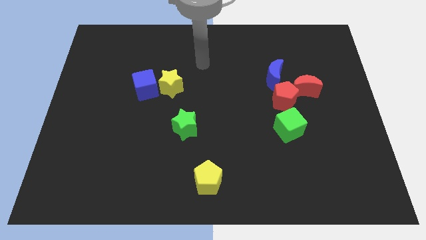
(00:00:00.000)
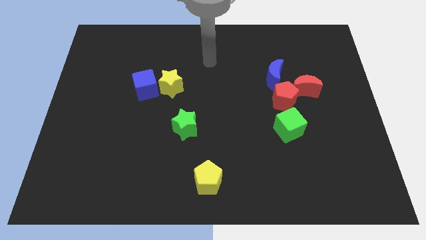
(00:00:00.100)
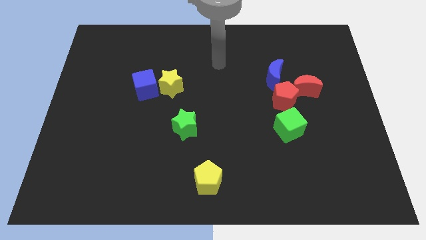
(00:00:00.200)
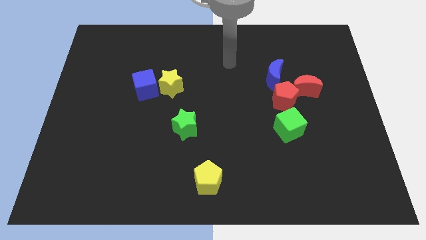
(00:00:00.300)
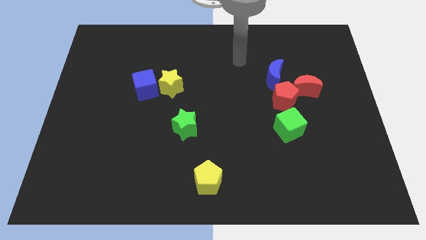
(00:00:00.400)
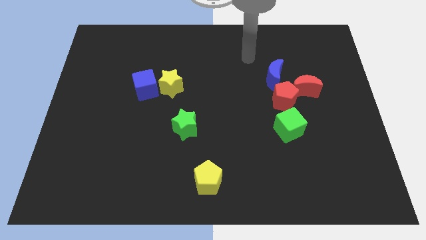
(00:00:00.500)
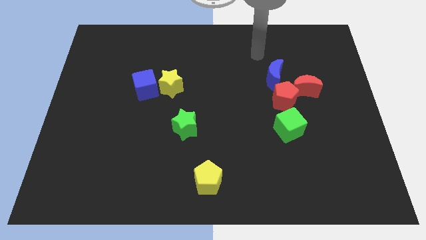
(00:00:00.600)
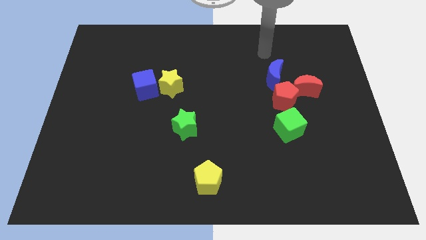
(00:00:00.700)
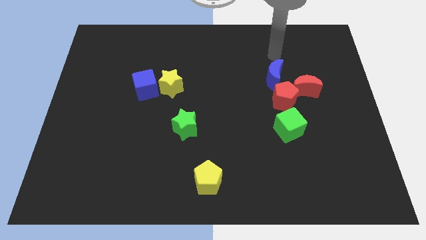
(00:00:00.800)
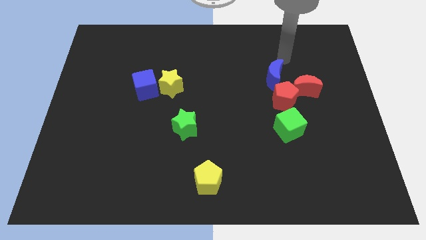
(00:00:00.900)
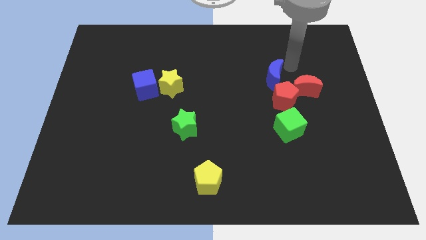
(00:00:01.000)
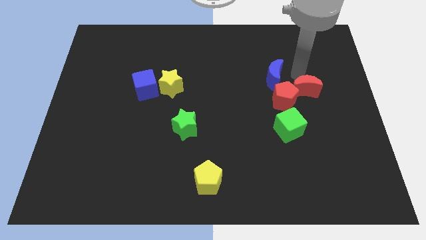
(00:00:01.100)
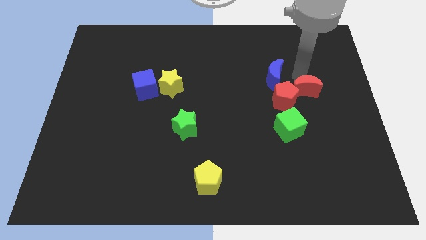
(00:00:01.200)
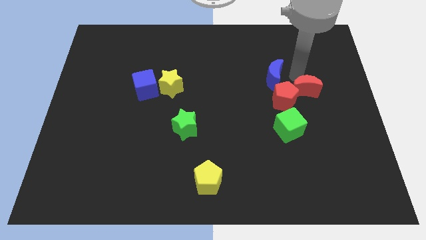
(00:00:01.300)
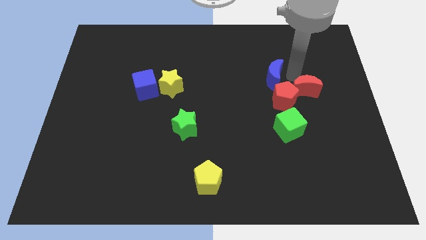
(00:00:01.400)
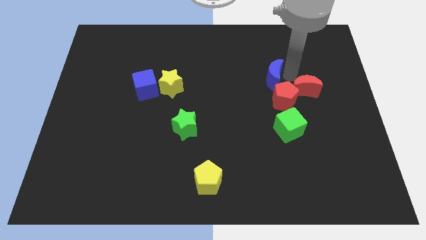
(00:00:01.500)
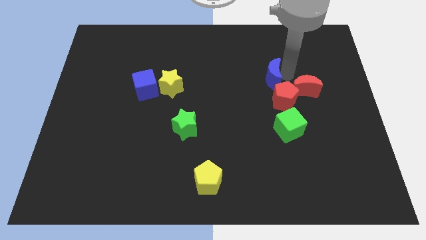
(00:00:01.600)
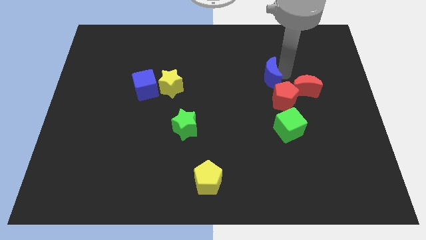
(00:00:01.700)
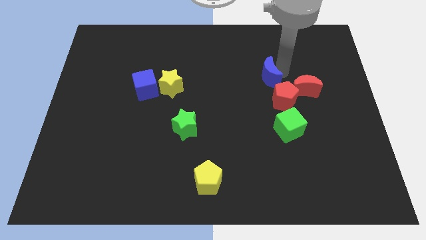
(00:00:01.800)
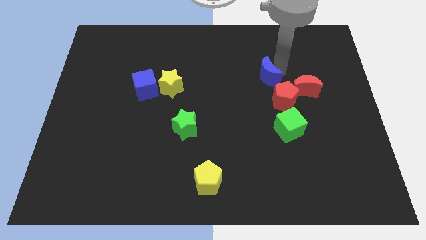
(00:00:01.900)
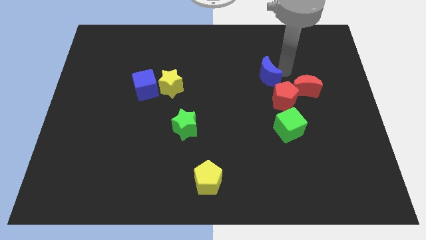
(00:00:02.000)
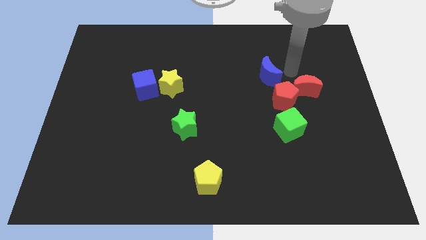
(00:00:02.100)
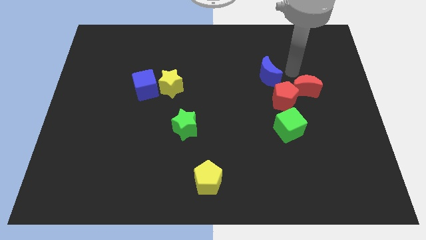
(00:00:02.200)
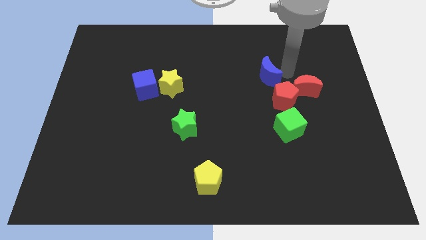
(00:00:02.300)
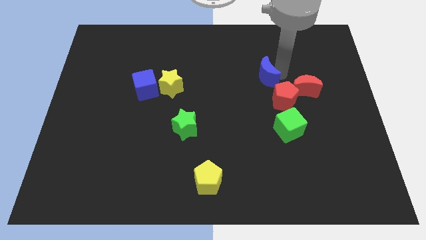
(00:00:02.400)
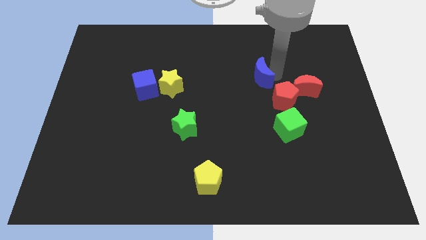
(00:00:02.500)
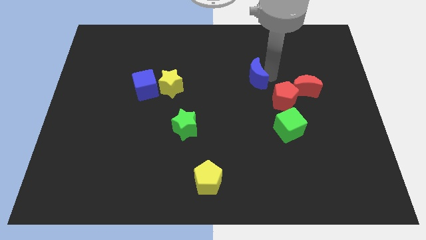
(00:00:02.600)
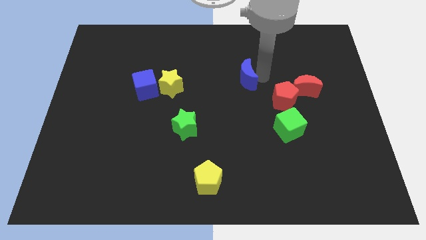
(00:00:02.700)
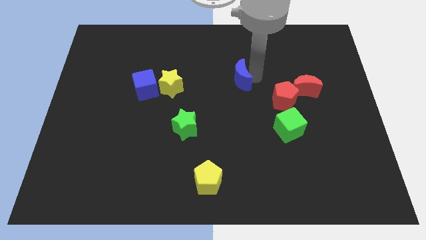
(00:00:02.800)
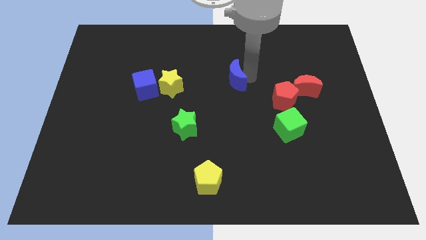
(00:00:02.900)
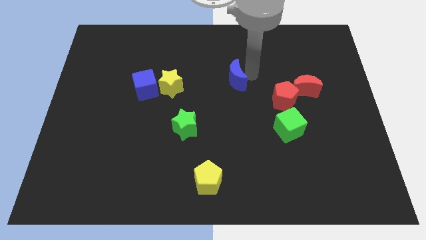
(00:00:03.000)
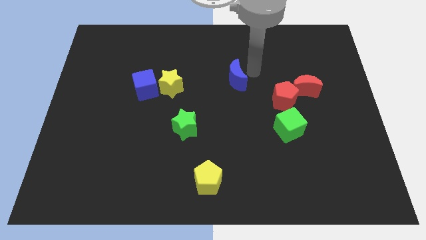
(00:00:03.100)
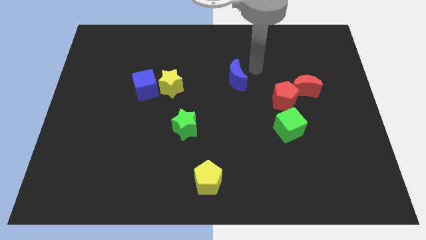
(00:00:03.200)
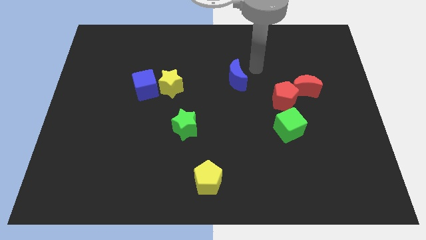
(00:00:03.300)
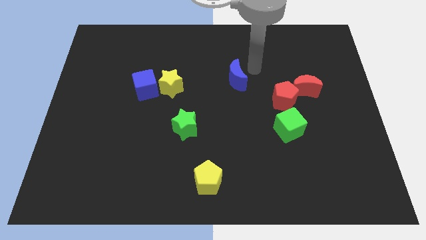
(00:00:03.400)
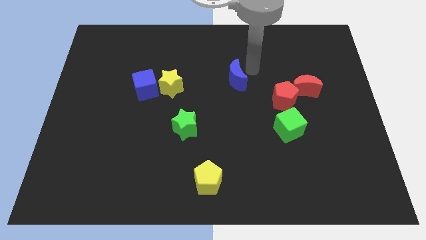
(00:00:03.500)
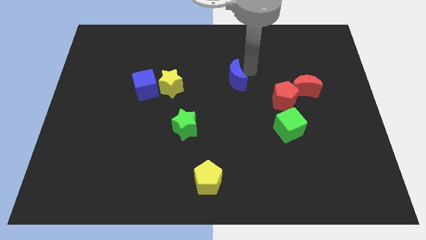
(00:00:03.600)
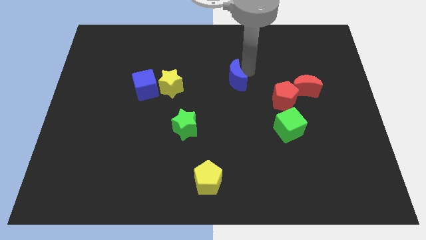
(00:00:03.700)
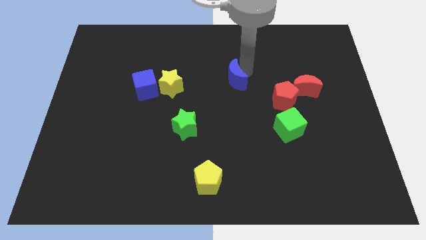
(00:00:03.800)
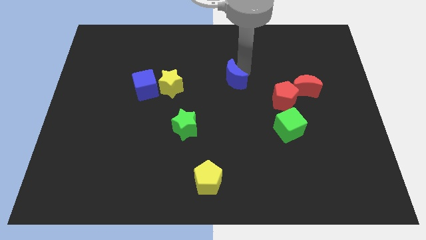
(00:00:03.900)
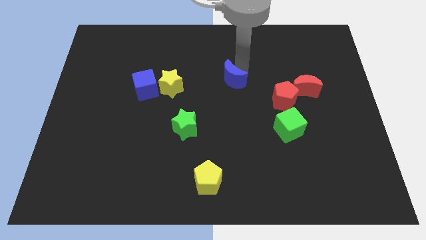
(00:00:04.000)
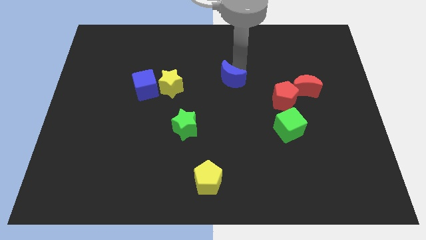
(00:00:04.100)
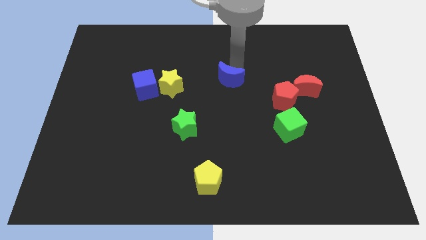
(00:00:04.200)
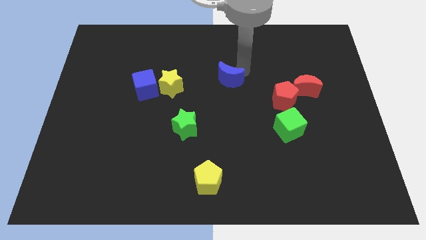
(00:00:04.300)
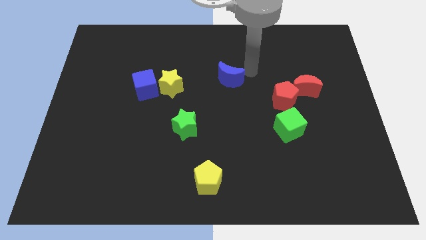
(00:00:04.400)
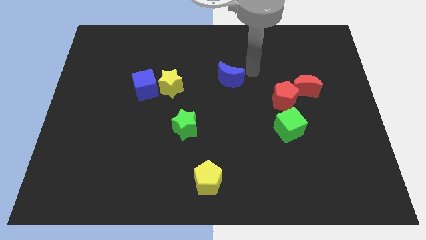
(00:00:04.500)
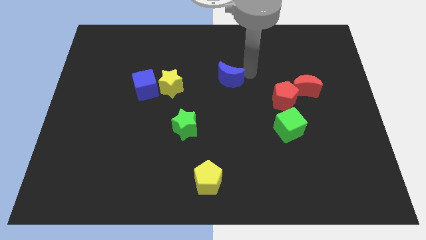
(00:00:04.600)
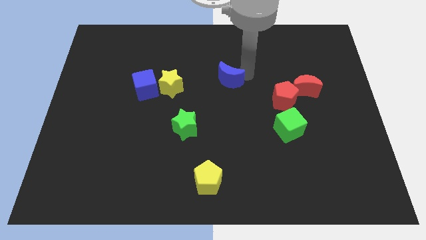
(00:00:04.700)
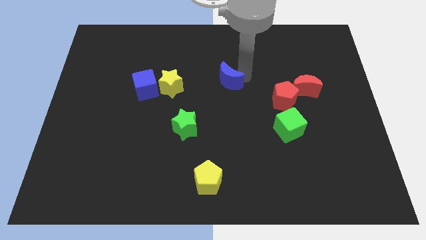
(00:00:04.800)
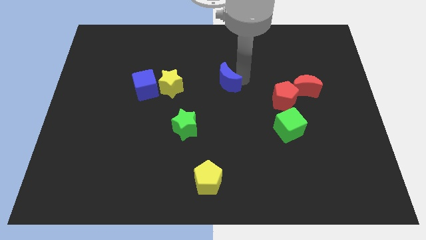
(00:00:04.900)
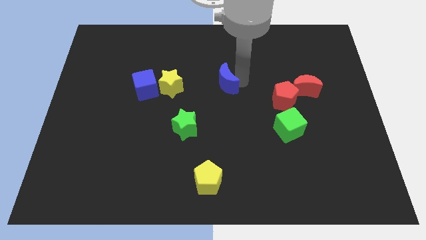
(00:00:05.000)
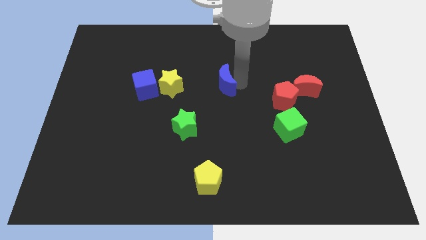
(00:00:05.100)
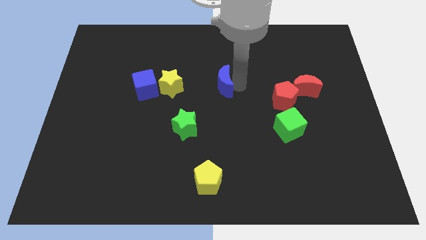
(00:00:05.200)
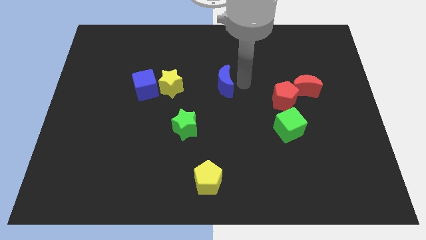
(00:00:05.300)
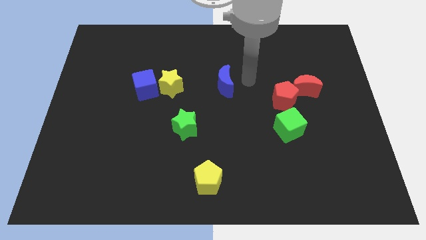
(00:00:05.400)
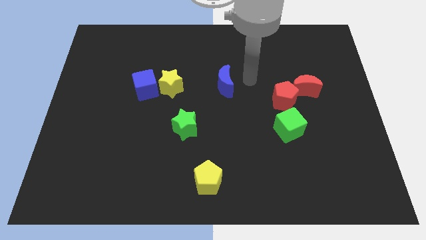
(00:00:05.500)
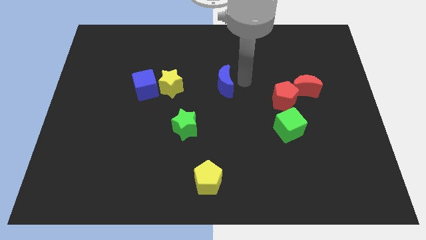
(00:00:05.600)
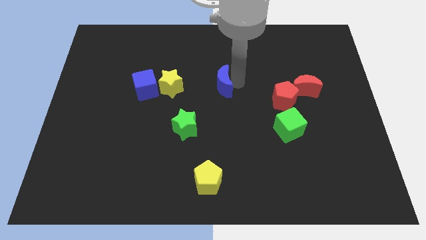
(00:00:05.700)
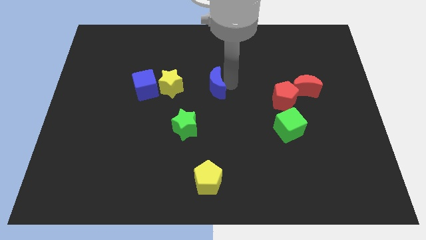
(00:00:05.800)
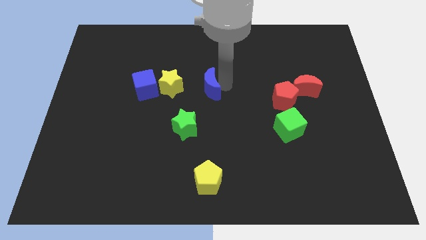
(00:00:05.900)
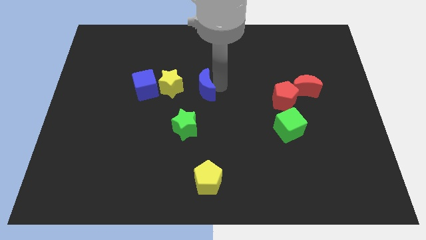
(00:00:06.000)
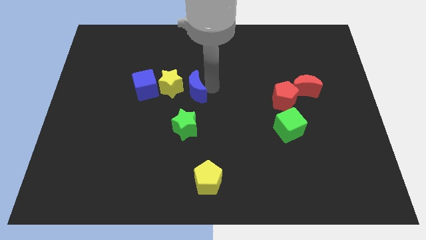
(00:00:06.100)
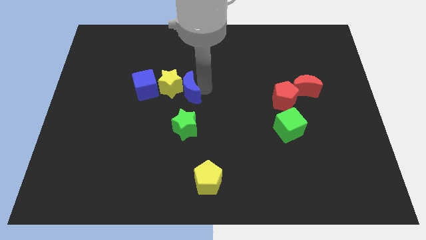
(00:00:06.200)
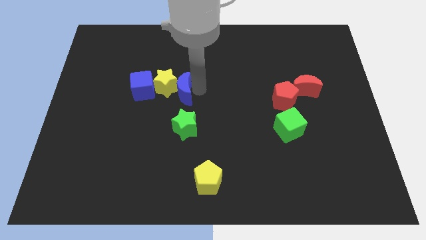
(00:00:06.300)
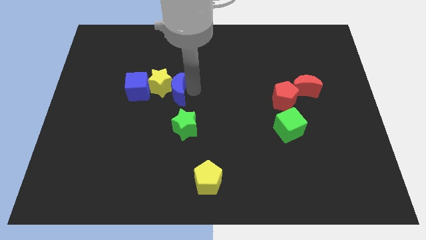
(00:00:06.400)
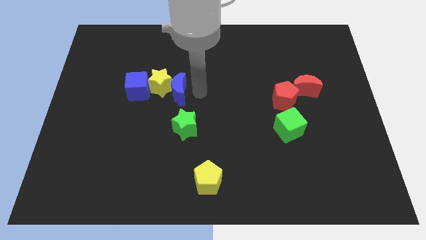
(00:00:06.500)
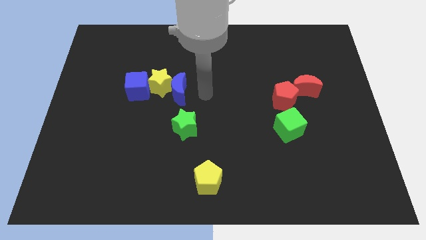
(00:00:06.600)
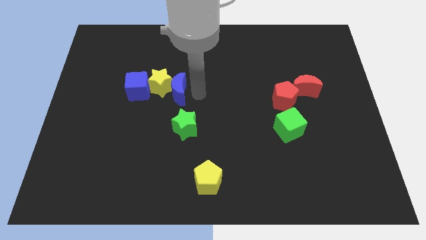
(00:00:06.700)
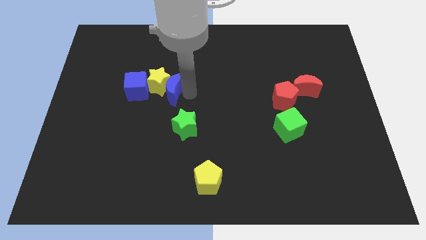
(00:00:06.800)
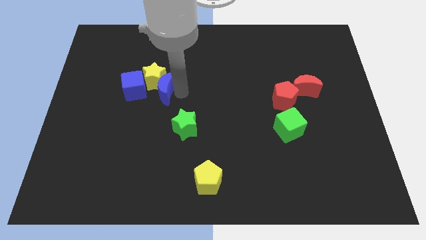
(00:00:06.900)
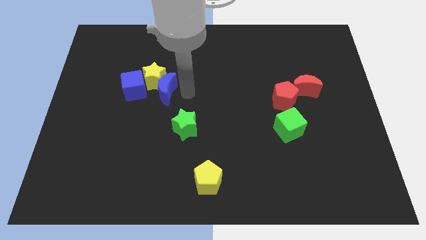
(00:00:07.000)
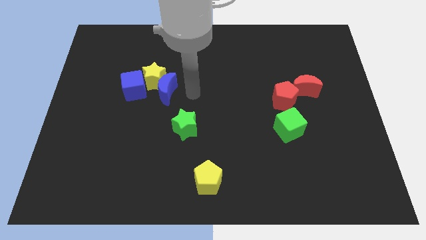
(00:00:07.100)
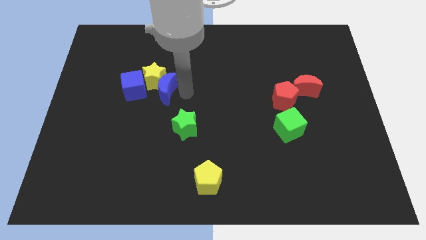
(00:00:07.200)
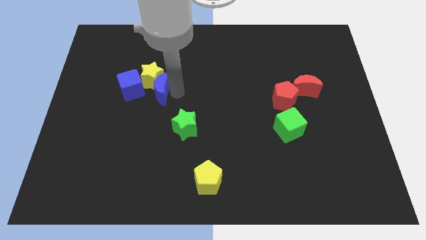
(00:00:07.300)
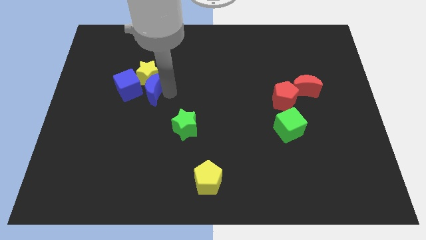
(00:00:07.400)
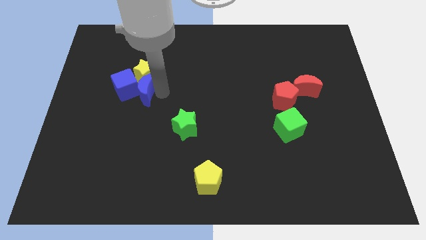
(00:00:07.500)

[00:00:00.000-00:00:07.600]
put the blue moon to the blue cube
